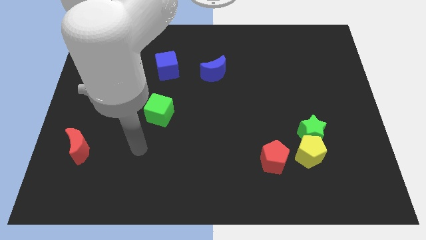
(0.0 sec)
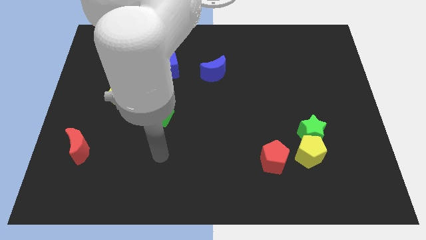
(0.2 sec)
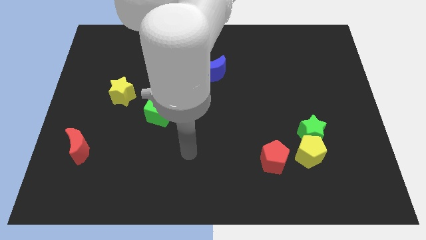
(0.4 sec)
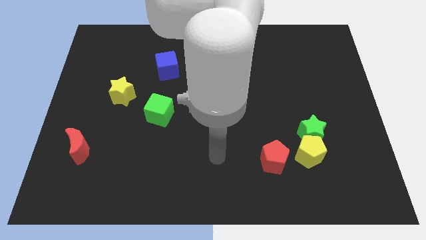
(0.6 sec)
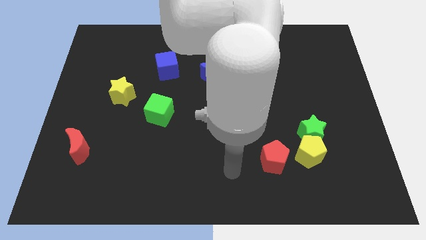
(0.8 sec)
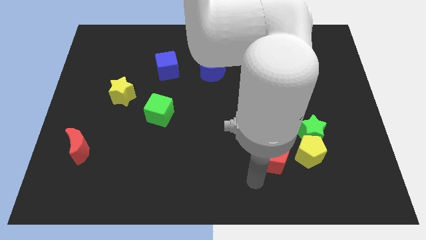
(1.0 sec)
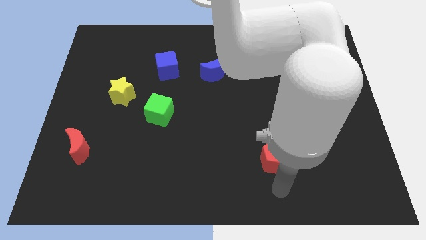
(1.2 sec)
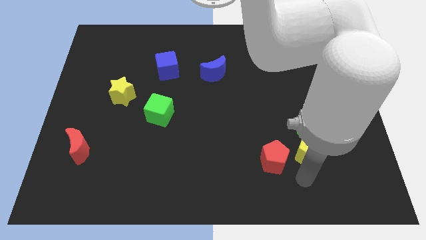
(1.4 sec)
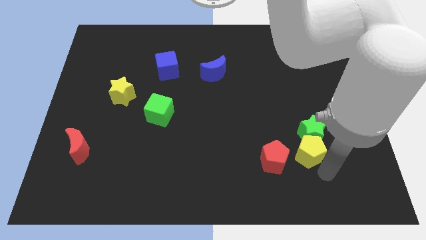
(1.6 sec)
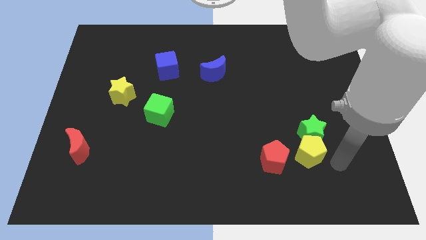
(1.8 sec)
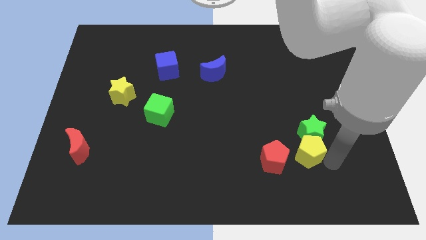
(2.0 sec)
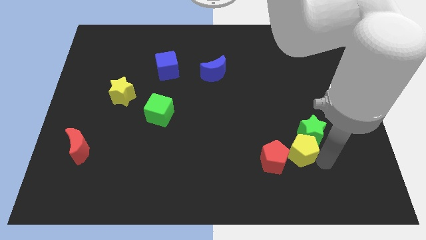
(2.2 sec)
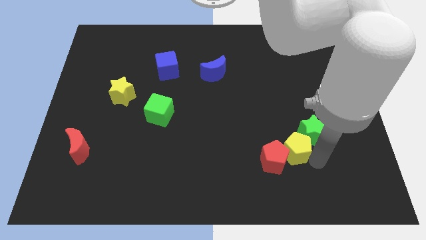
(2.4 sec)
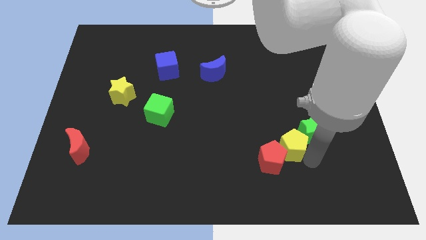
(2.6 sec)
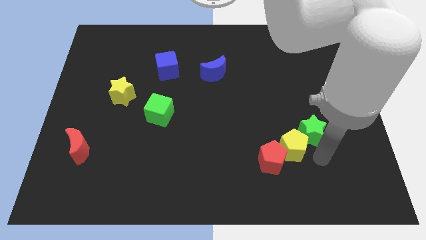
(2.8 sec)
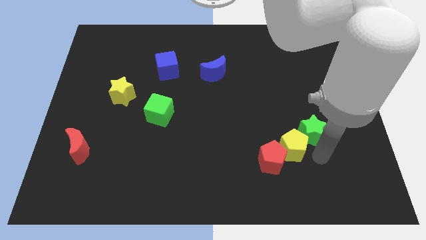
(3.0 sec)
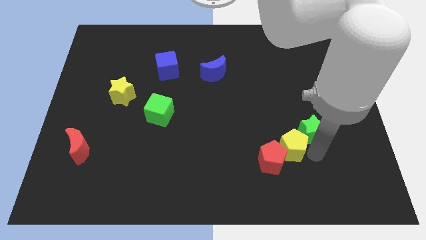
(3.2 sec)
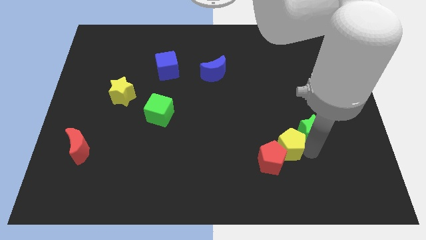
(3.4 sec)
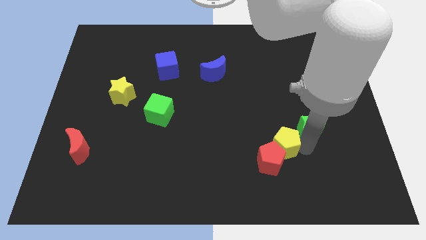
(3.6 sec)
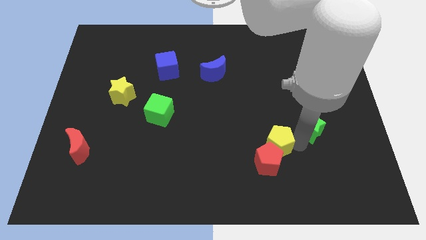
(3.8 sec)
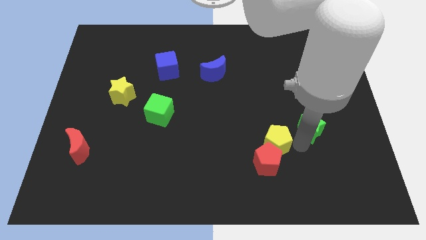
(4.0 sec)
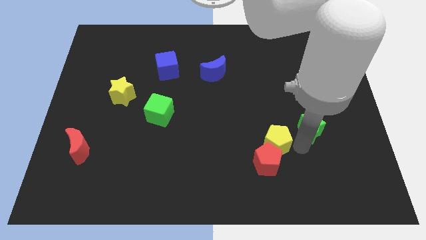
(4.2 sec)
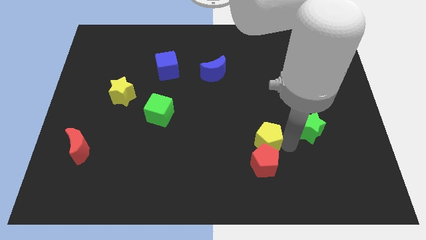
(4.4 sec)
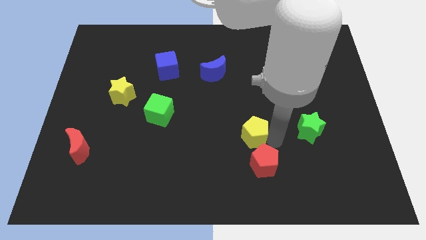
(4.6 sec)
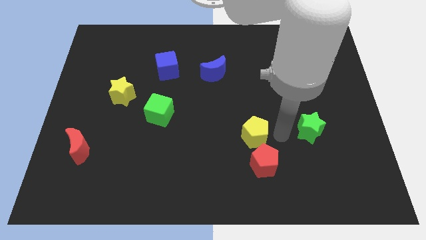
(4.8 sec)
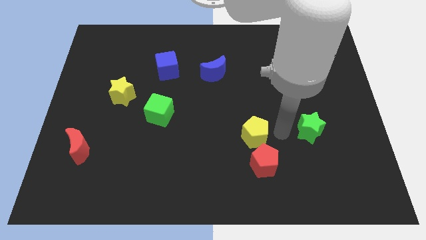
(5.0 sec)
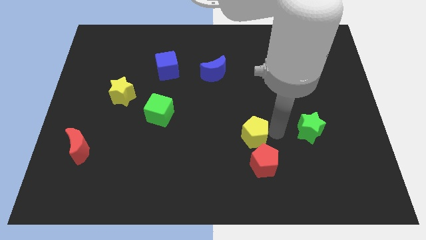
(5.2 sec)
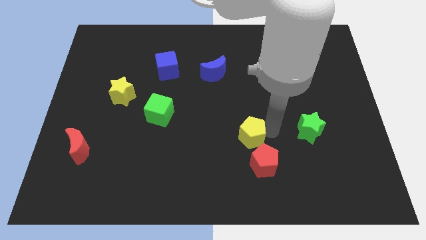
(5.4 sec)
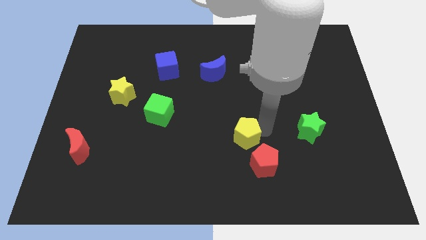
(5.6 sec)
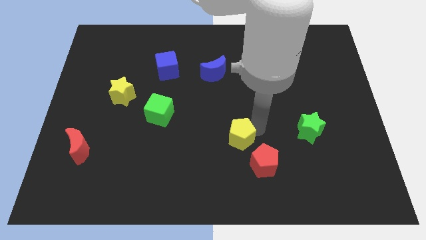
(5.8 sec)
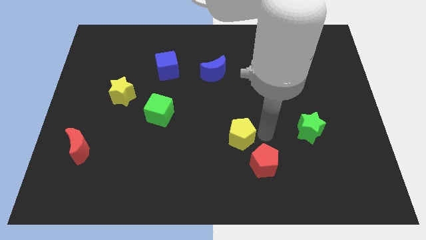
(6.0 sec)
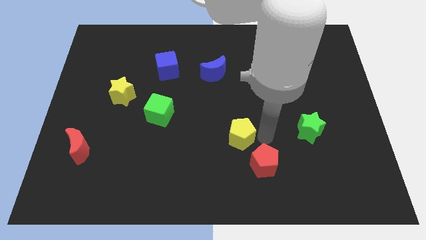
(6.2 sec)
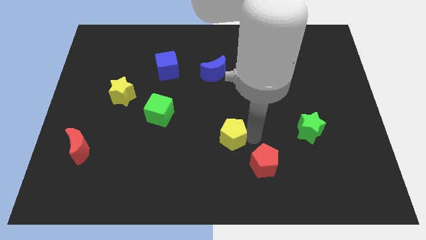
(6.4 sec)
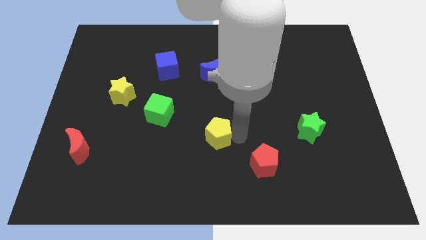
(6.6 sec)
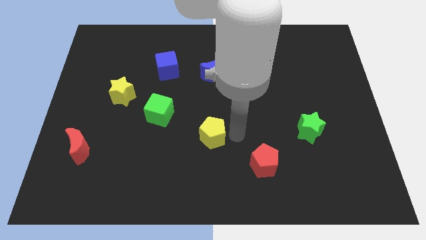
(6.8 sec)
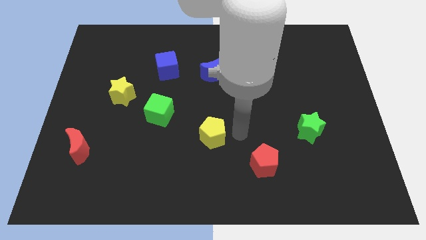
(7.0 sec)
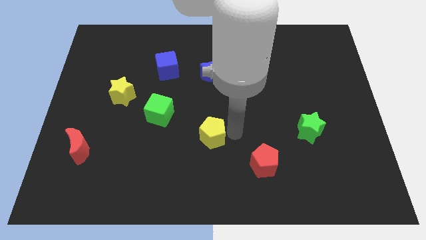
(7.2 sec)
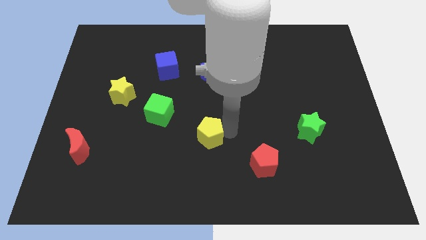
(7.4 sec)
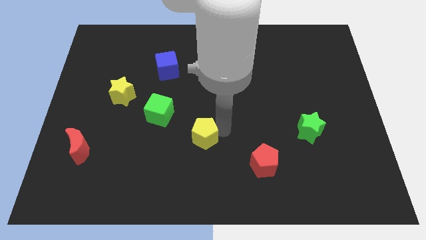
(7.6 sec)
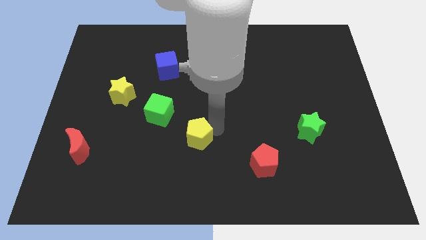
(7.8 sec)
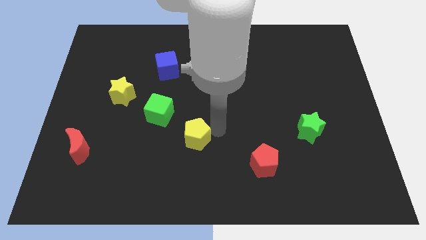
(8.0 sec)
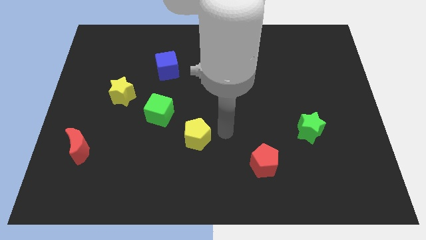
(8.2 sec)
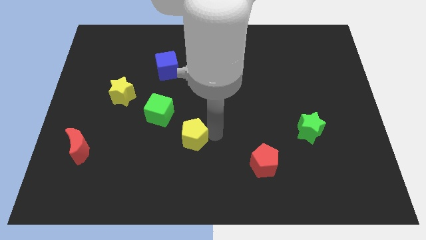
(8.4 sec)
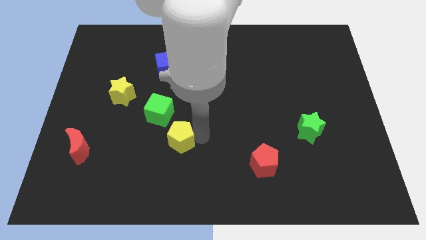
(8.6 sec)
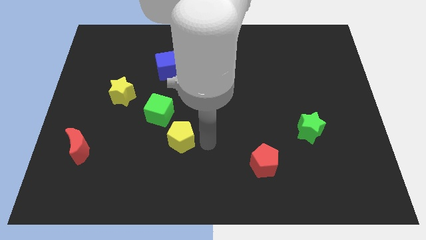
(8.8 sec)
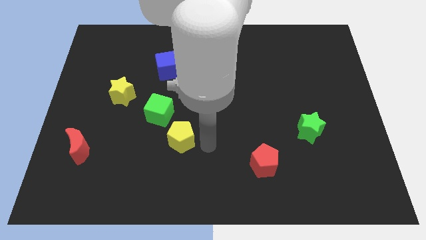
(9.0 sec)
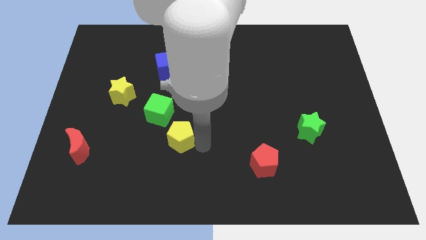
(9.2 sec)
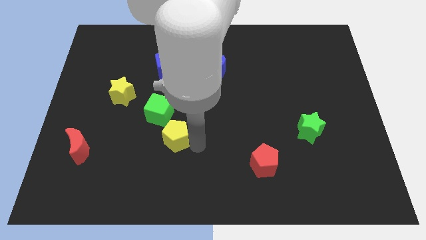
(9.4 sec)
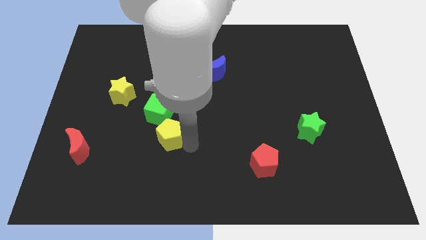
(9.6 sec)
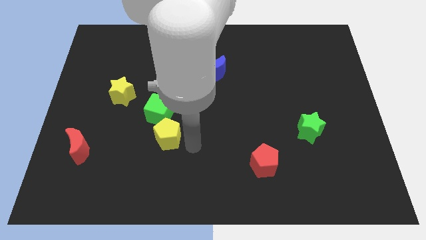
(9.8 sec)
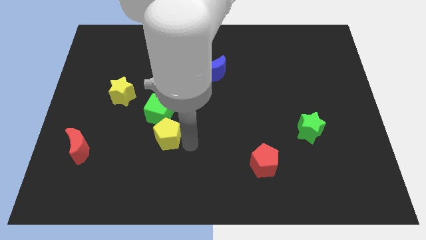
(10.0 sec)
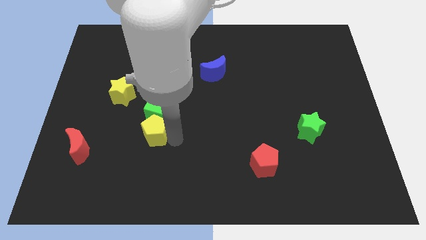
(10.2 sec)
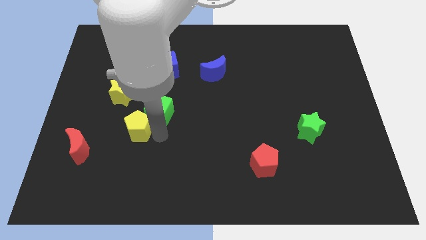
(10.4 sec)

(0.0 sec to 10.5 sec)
slide the yellow pentagon to the left of the green cube

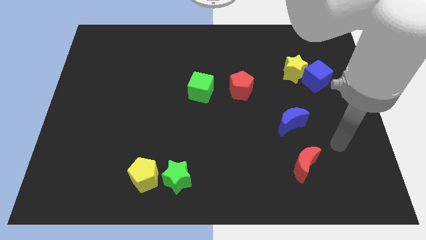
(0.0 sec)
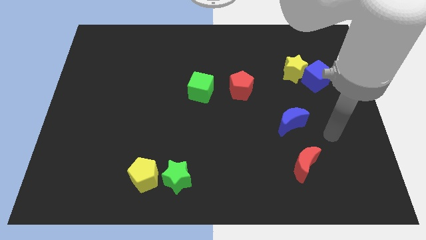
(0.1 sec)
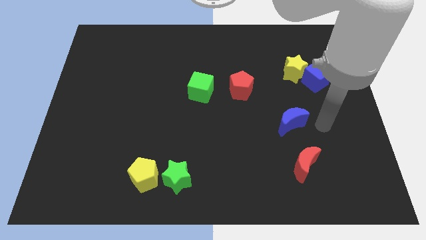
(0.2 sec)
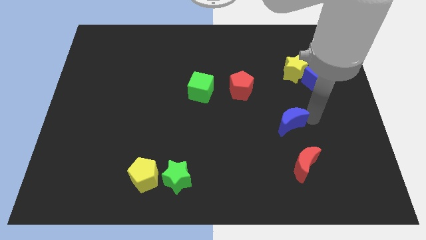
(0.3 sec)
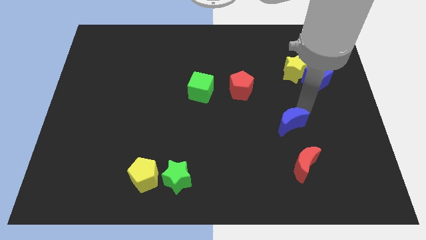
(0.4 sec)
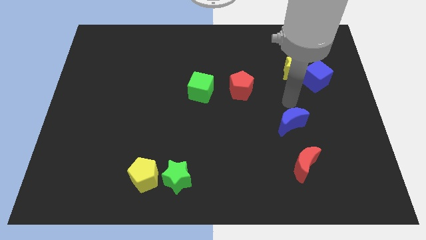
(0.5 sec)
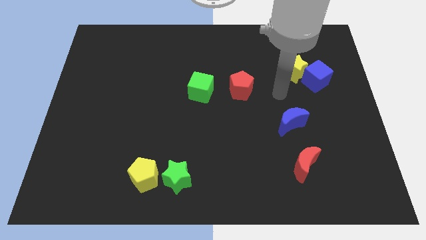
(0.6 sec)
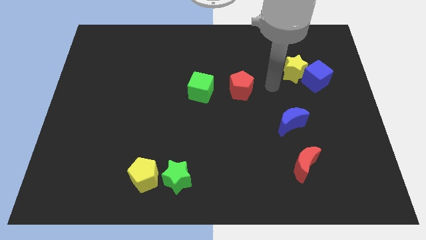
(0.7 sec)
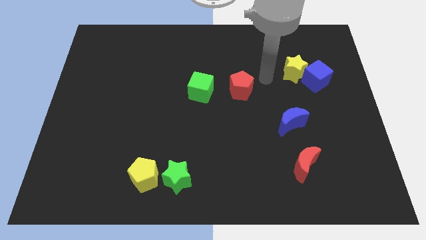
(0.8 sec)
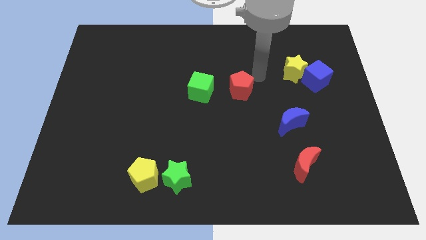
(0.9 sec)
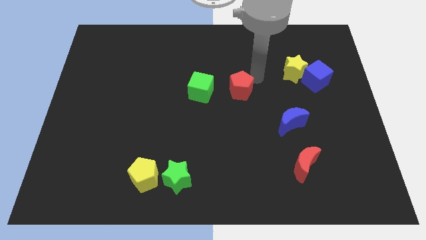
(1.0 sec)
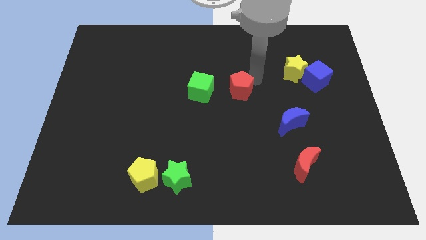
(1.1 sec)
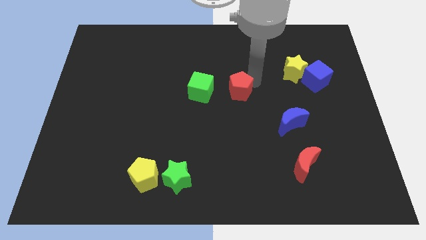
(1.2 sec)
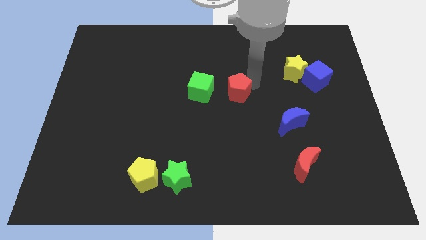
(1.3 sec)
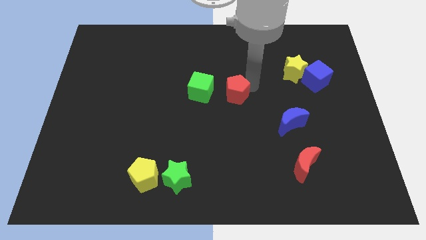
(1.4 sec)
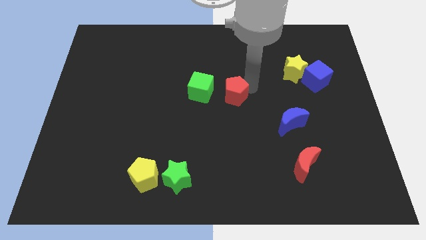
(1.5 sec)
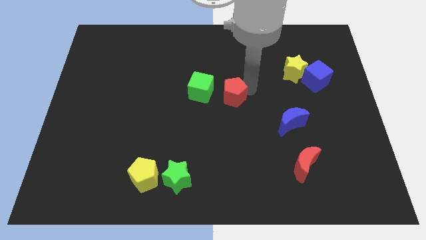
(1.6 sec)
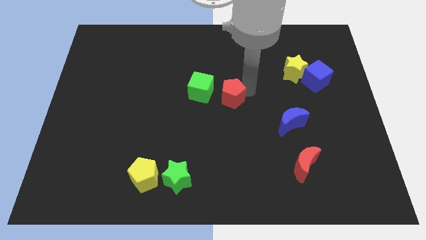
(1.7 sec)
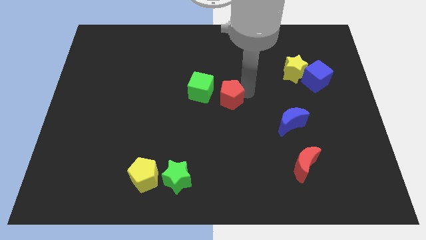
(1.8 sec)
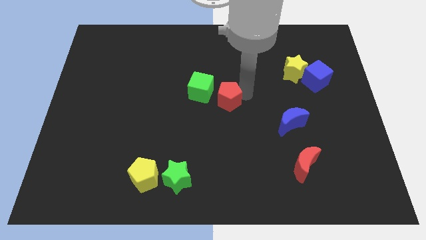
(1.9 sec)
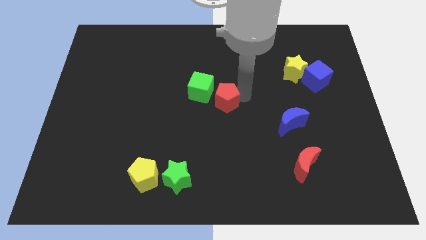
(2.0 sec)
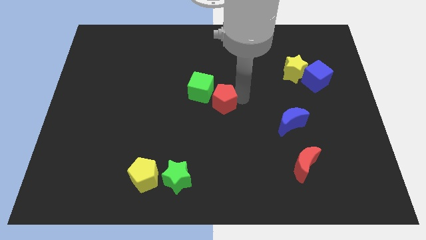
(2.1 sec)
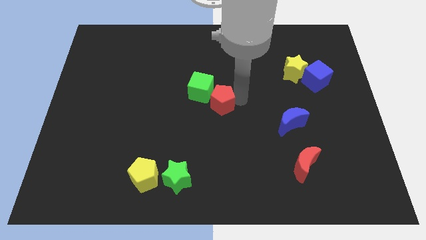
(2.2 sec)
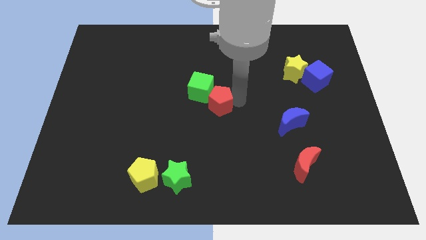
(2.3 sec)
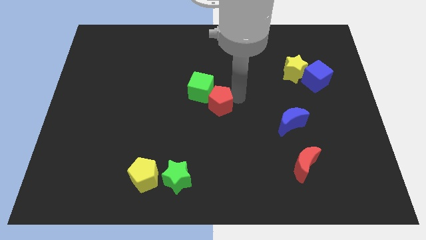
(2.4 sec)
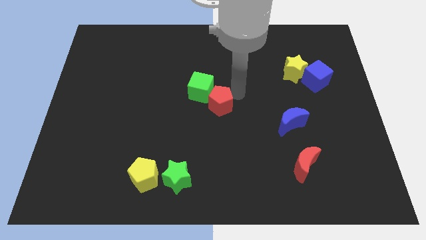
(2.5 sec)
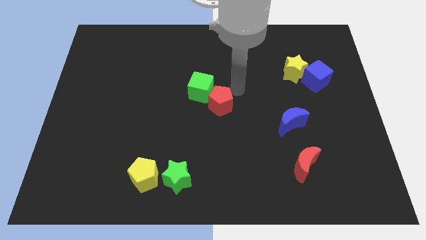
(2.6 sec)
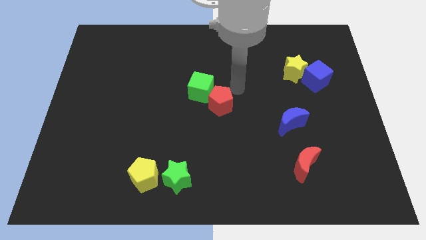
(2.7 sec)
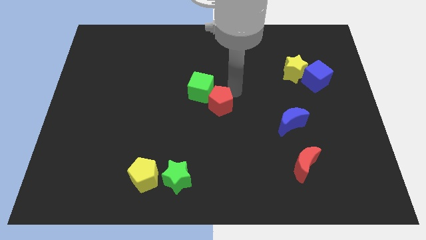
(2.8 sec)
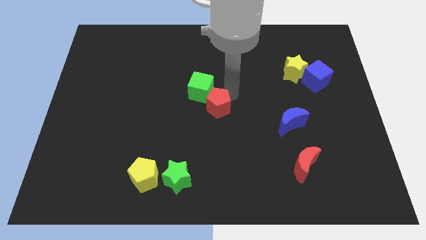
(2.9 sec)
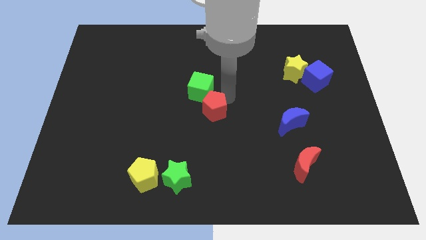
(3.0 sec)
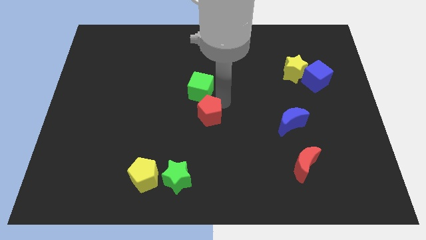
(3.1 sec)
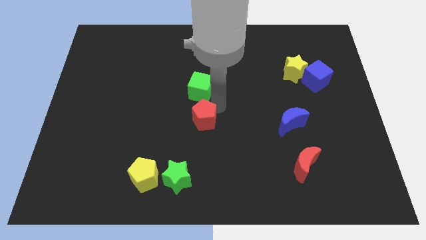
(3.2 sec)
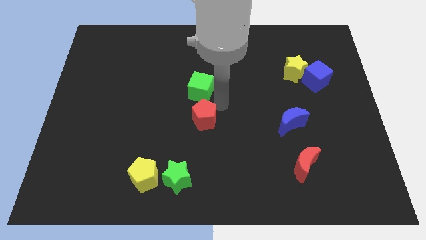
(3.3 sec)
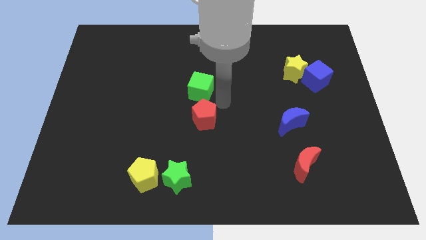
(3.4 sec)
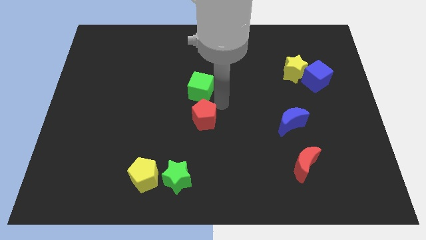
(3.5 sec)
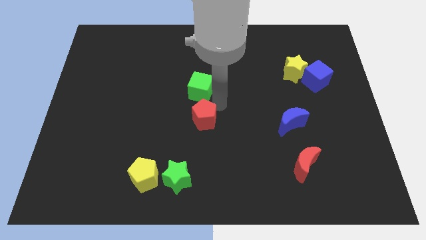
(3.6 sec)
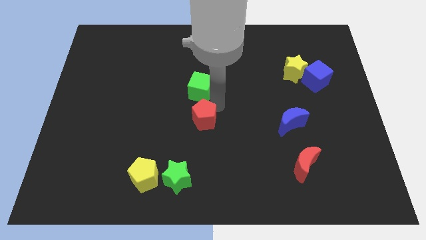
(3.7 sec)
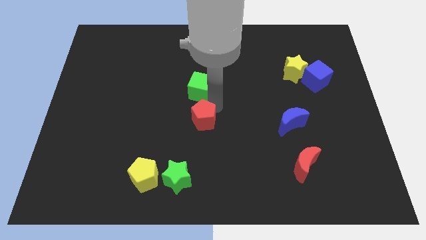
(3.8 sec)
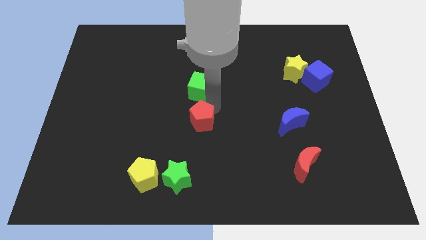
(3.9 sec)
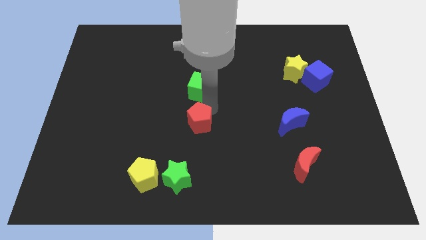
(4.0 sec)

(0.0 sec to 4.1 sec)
move the red pentagon to the top side of the green star
